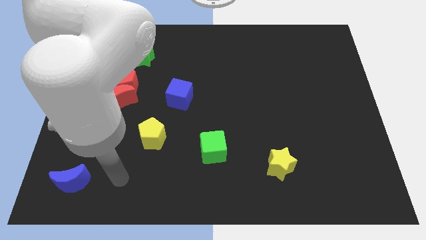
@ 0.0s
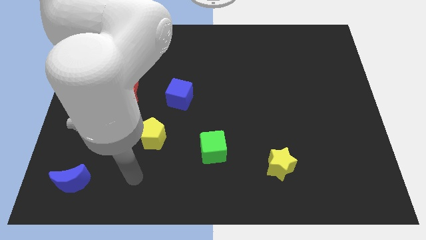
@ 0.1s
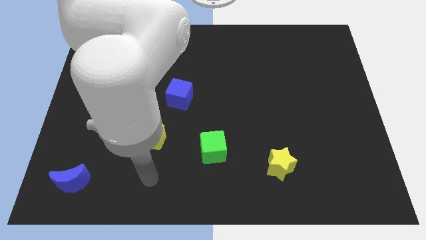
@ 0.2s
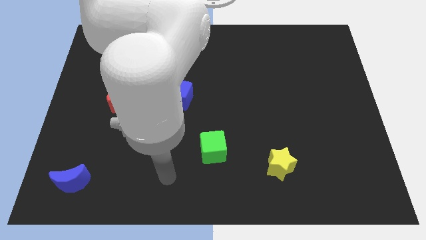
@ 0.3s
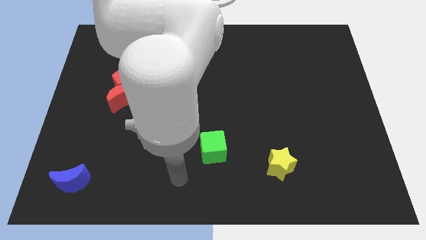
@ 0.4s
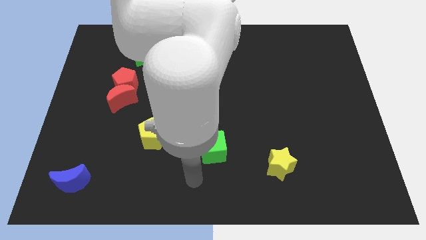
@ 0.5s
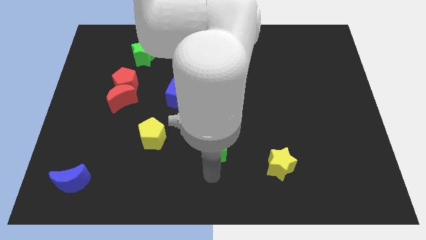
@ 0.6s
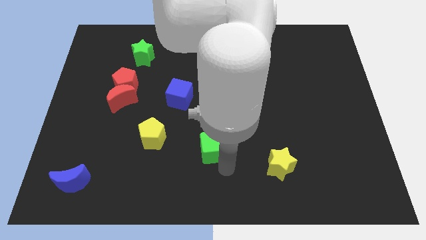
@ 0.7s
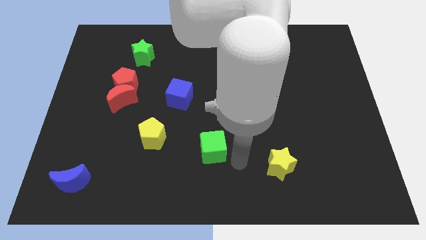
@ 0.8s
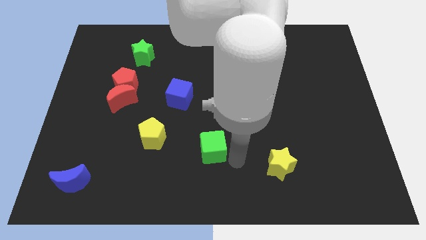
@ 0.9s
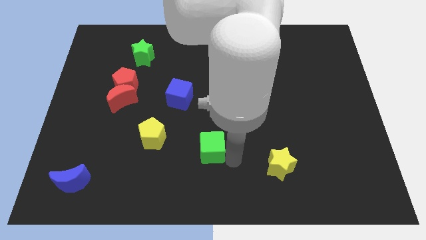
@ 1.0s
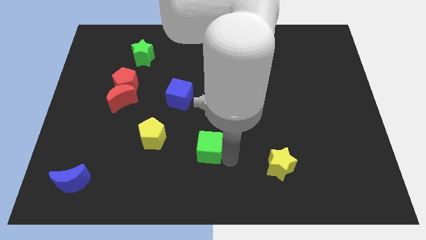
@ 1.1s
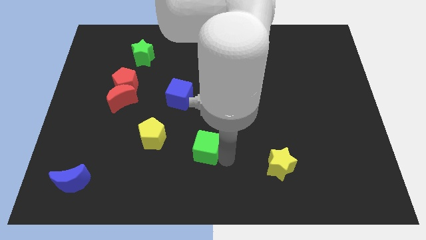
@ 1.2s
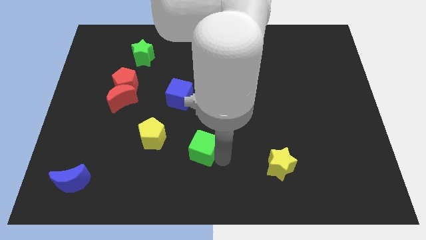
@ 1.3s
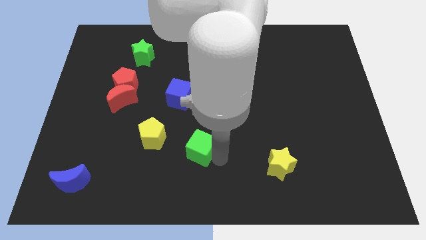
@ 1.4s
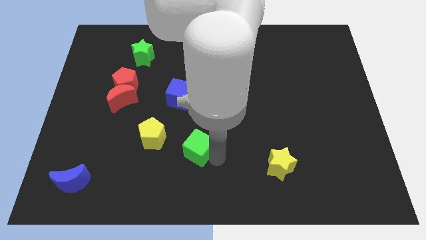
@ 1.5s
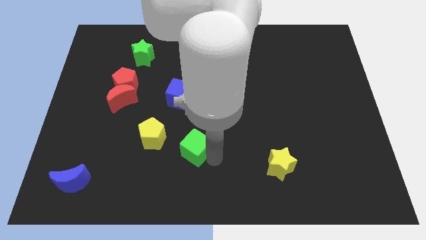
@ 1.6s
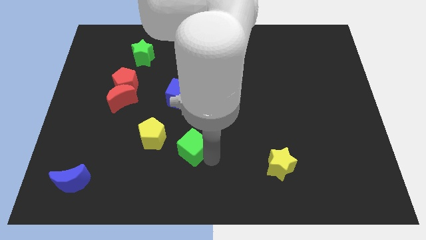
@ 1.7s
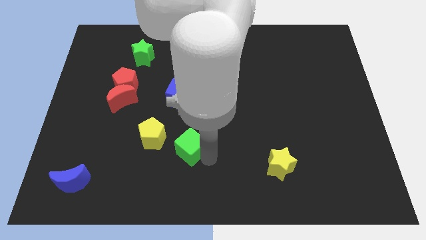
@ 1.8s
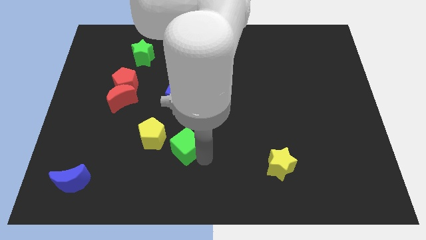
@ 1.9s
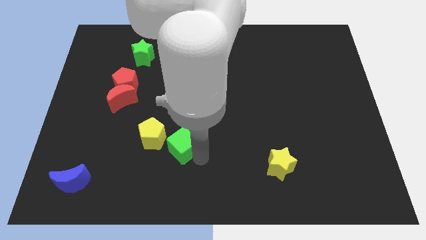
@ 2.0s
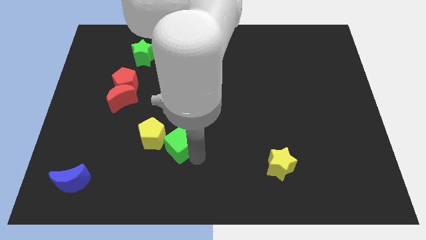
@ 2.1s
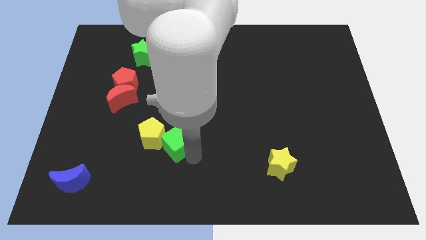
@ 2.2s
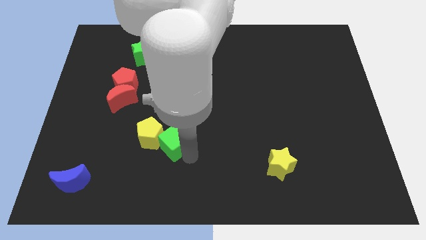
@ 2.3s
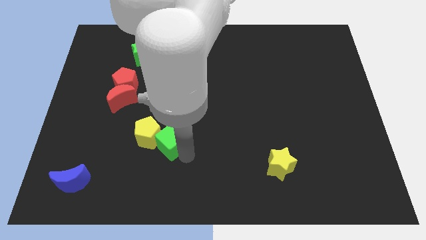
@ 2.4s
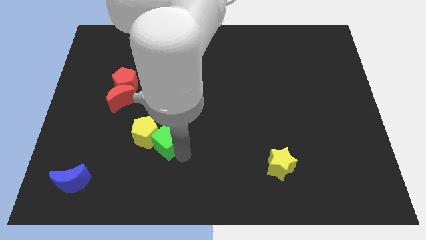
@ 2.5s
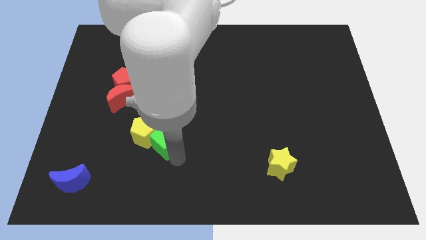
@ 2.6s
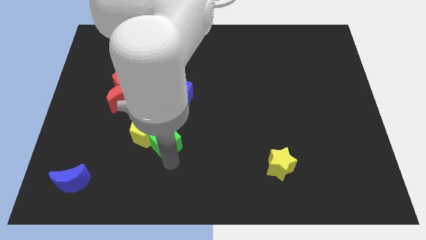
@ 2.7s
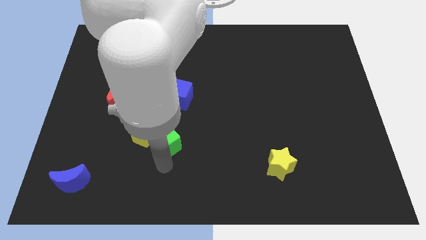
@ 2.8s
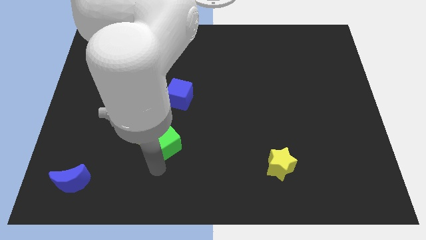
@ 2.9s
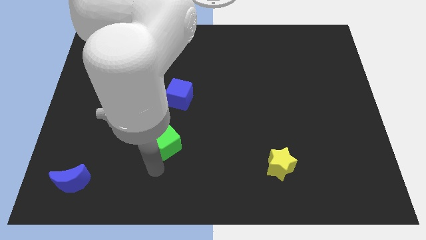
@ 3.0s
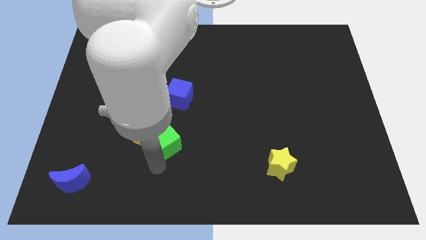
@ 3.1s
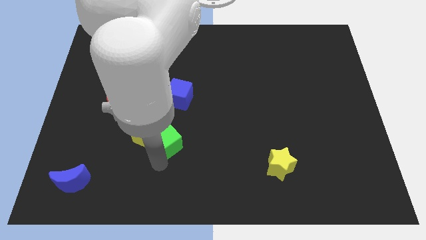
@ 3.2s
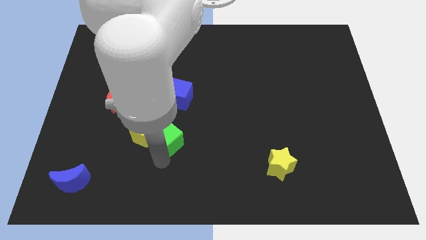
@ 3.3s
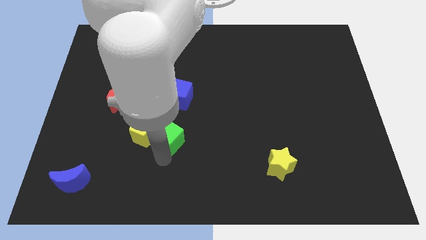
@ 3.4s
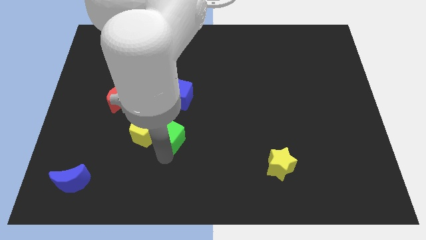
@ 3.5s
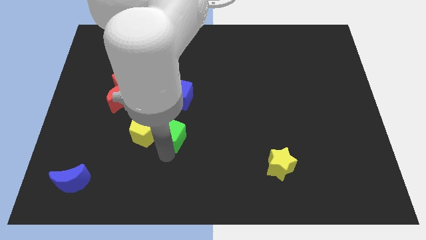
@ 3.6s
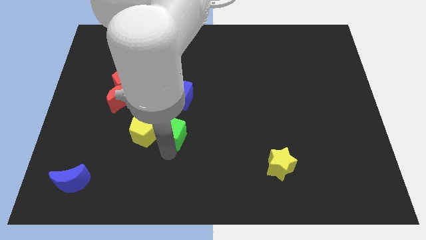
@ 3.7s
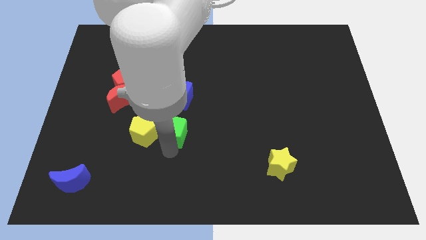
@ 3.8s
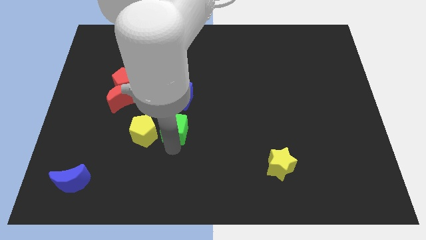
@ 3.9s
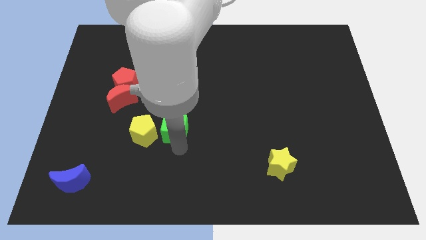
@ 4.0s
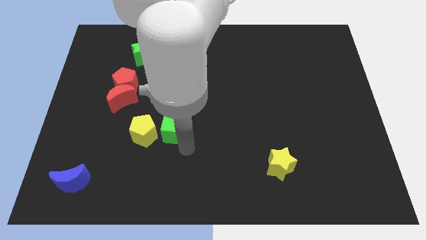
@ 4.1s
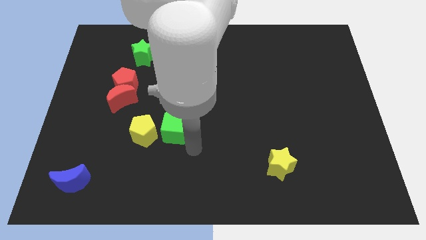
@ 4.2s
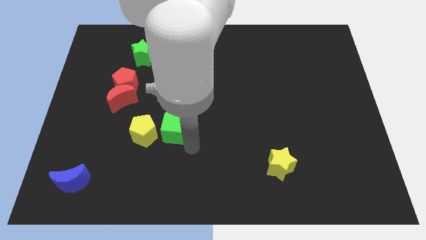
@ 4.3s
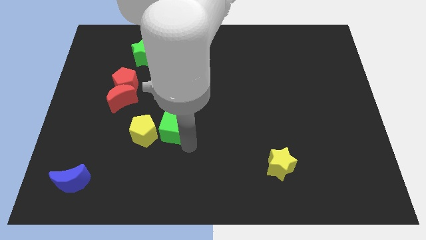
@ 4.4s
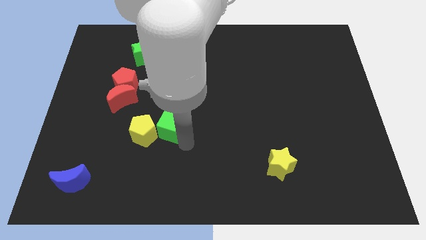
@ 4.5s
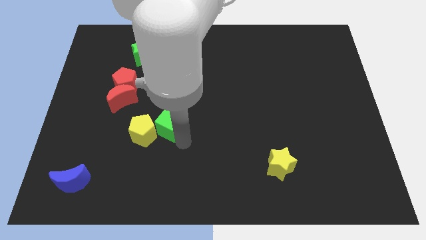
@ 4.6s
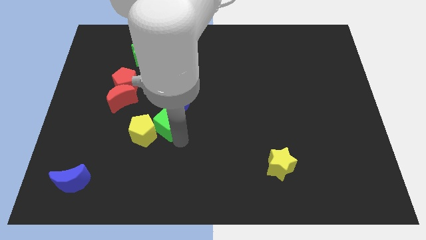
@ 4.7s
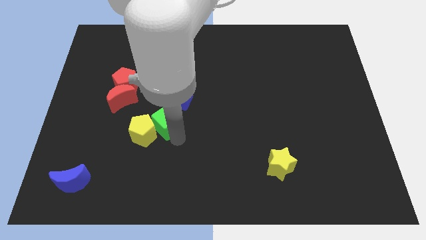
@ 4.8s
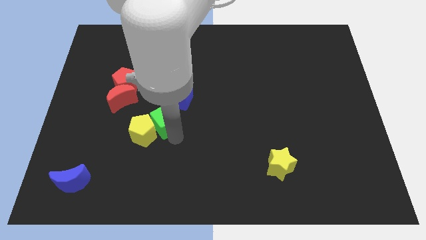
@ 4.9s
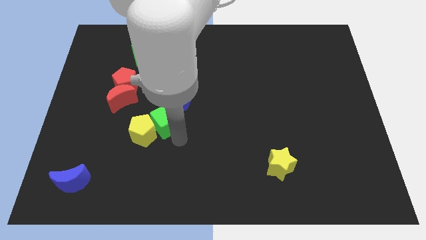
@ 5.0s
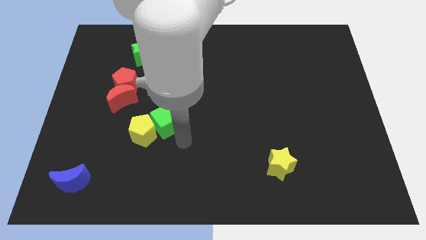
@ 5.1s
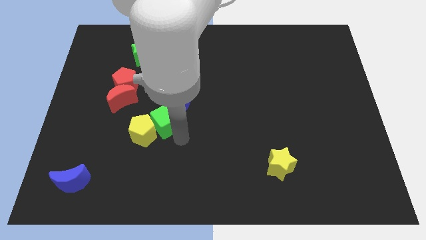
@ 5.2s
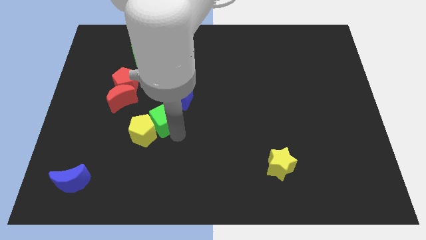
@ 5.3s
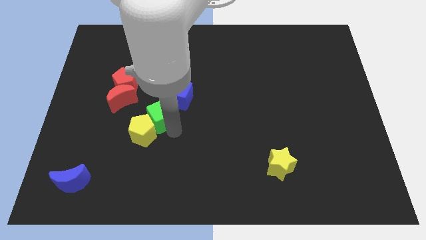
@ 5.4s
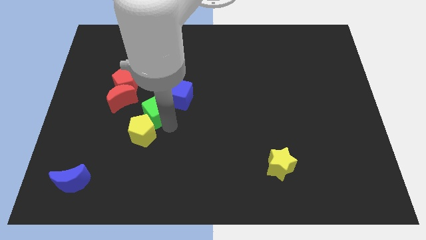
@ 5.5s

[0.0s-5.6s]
move the green cube to the bottom right of the red pentagon

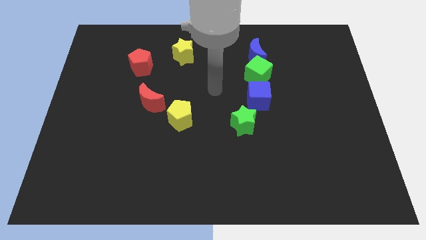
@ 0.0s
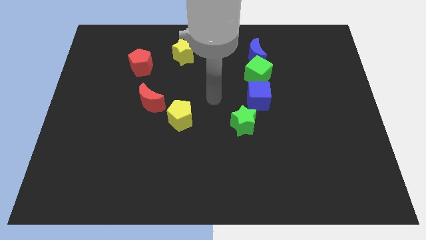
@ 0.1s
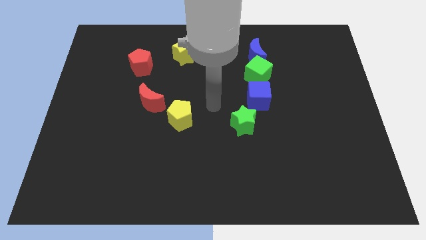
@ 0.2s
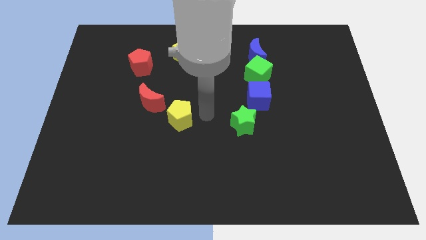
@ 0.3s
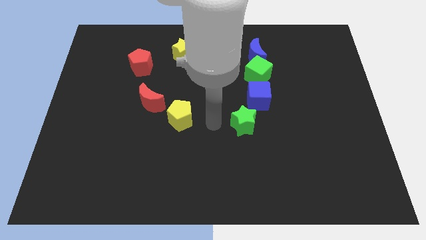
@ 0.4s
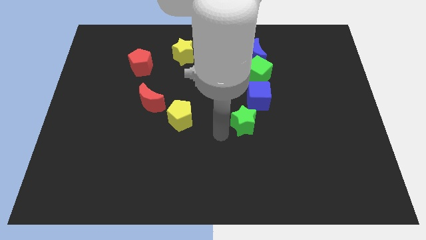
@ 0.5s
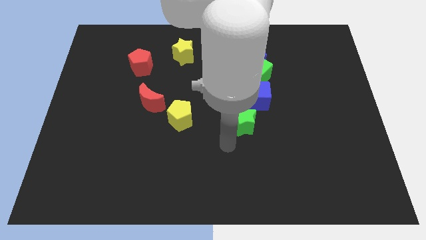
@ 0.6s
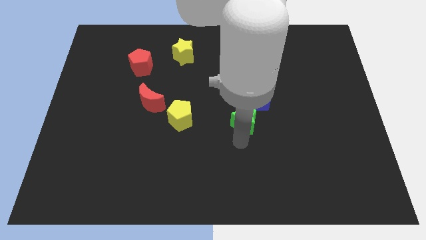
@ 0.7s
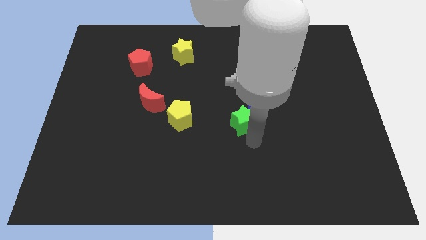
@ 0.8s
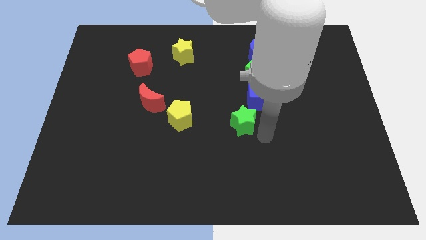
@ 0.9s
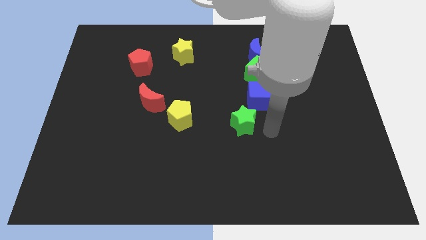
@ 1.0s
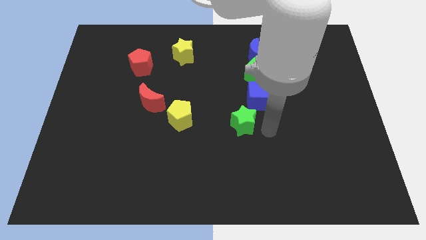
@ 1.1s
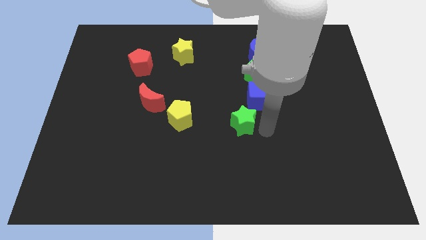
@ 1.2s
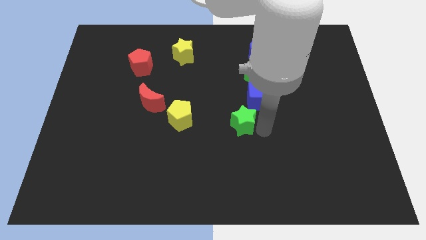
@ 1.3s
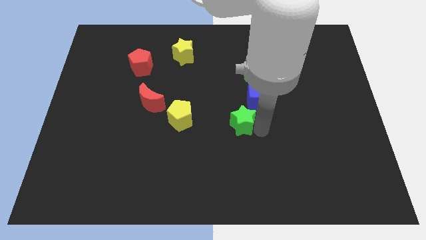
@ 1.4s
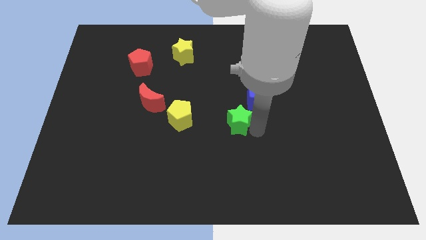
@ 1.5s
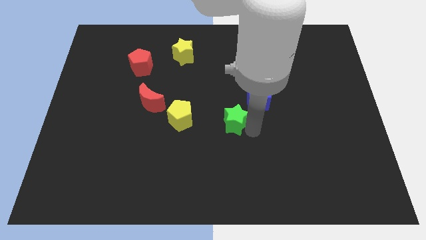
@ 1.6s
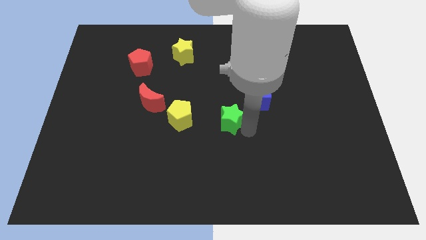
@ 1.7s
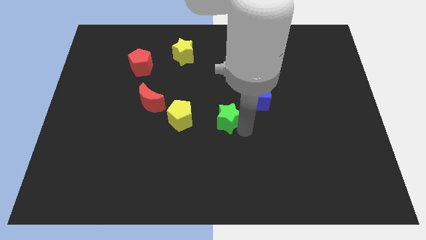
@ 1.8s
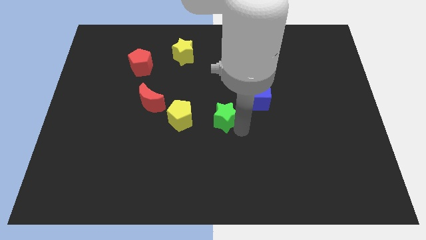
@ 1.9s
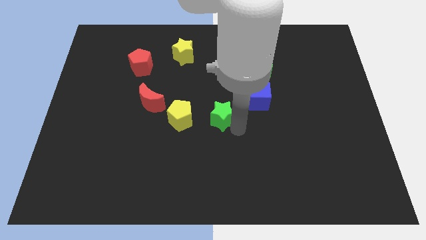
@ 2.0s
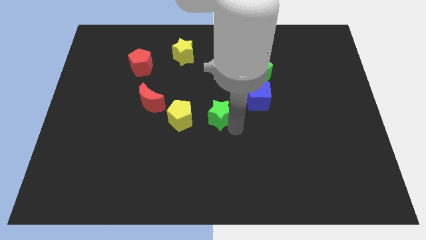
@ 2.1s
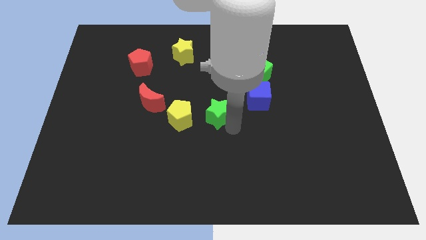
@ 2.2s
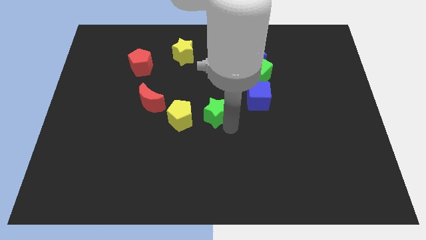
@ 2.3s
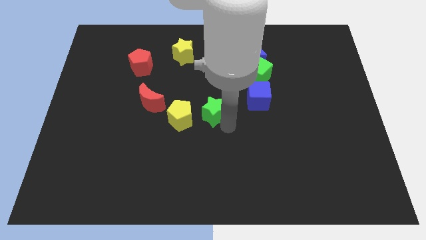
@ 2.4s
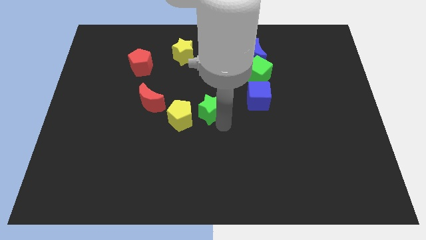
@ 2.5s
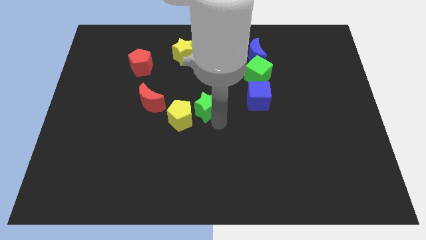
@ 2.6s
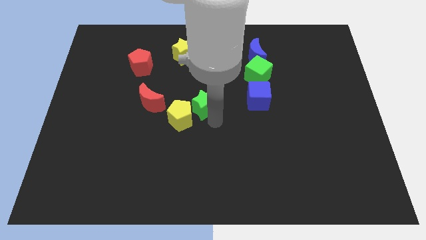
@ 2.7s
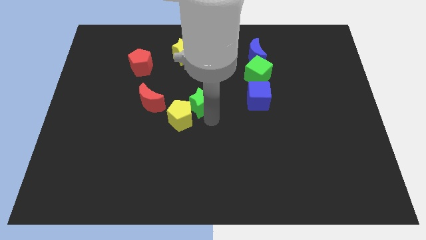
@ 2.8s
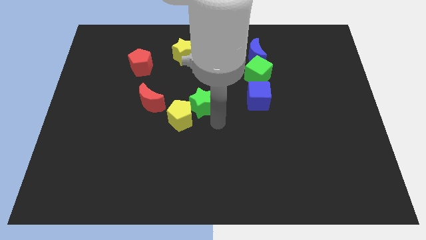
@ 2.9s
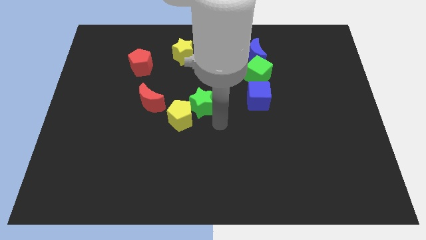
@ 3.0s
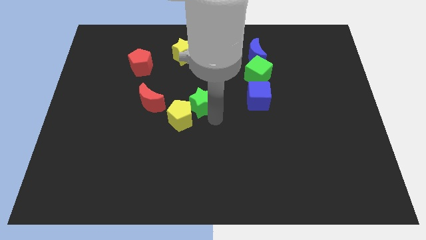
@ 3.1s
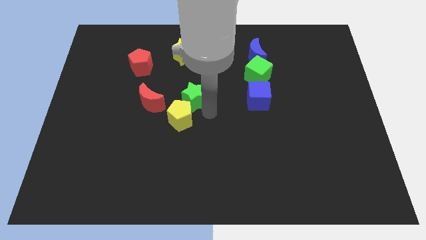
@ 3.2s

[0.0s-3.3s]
push the green star to the bottom side of the yellow star
